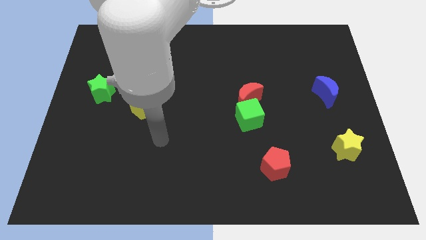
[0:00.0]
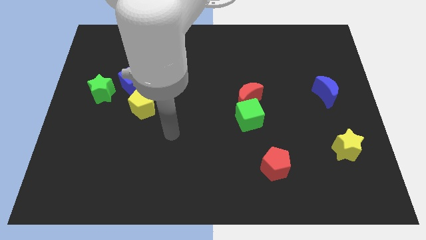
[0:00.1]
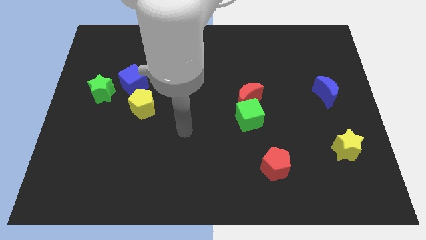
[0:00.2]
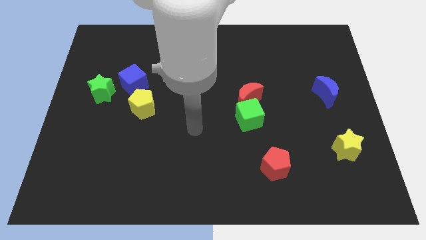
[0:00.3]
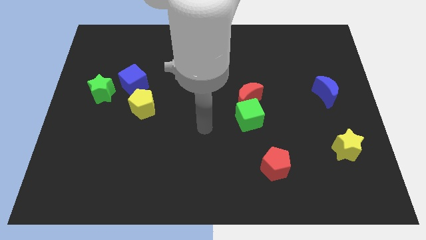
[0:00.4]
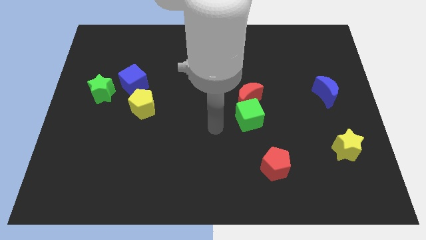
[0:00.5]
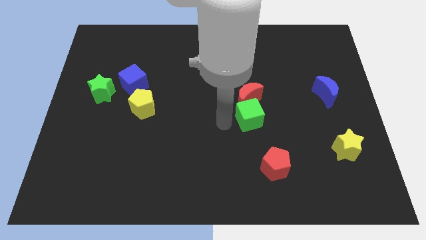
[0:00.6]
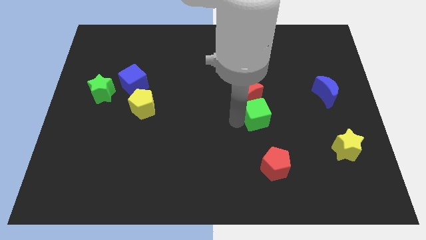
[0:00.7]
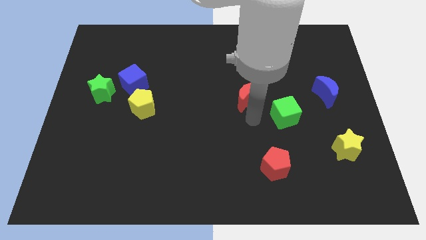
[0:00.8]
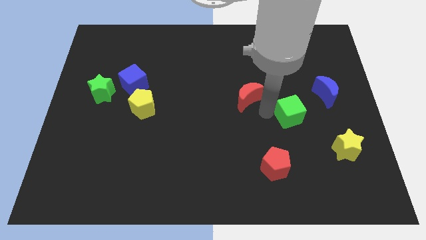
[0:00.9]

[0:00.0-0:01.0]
pull the red moon apart from the green cube

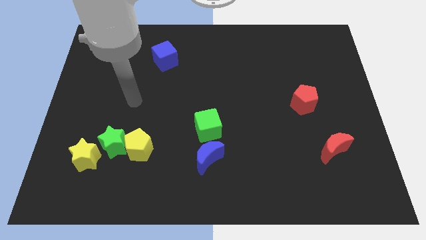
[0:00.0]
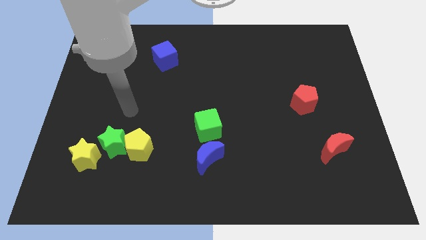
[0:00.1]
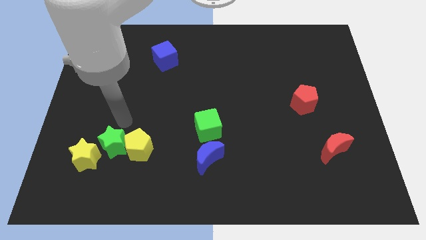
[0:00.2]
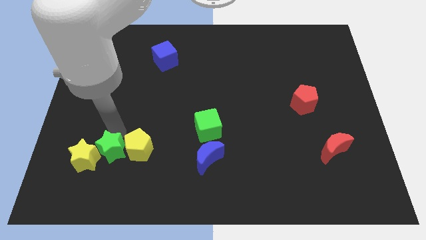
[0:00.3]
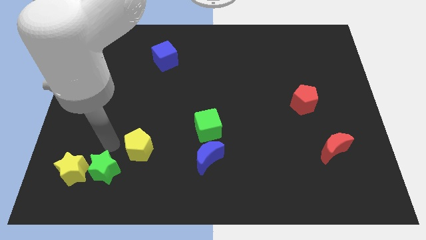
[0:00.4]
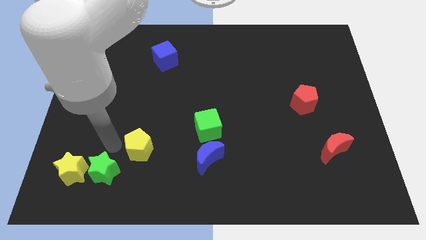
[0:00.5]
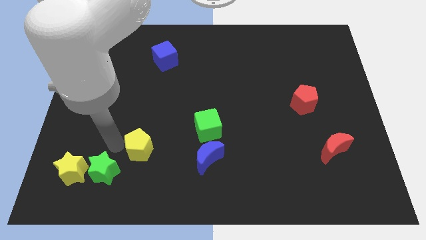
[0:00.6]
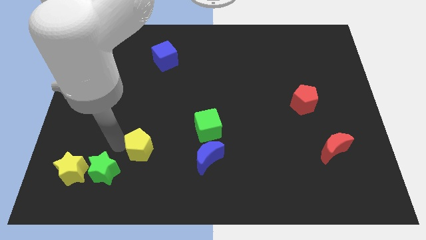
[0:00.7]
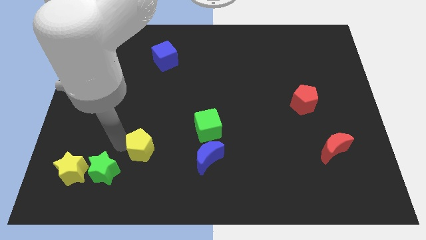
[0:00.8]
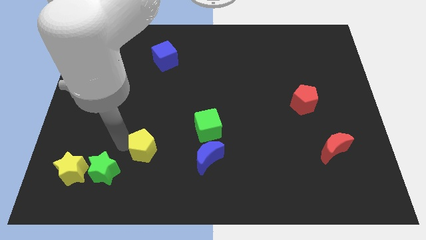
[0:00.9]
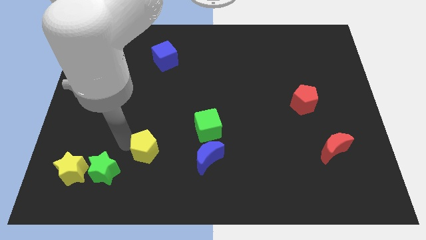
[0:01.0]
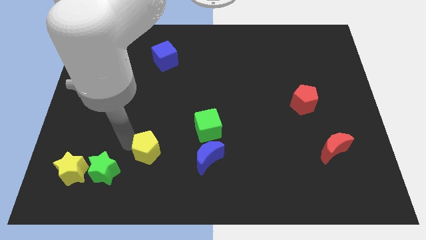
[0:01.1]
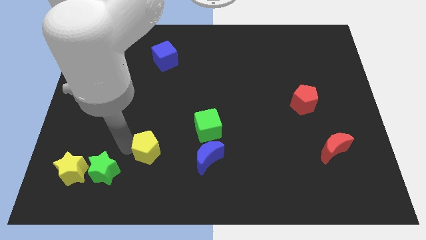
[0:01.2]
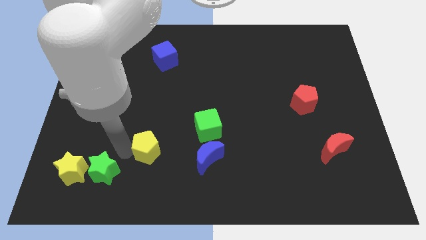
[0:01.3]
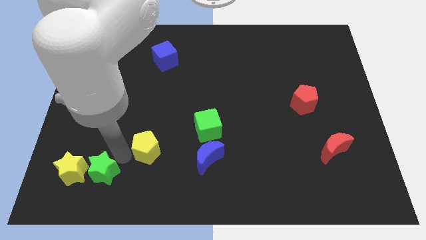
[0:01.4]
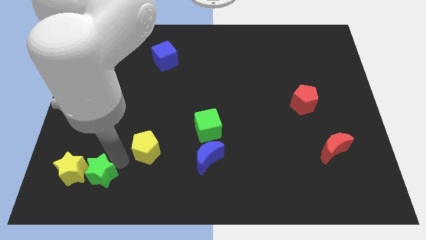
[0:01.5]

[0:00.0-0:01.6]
move the yellow pentagon away from the green star

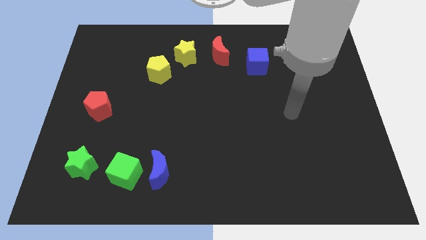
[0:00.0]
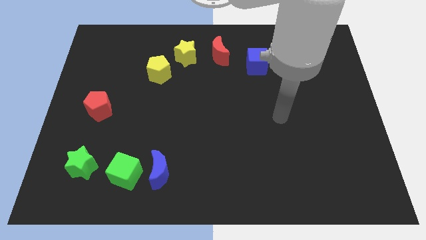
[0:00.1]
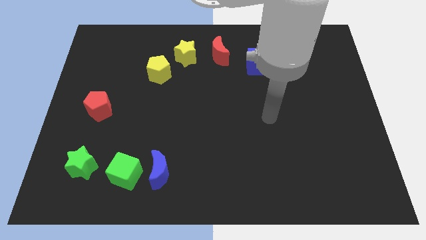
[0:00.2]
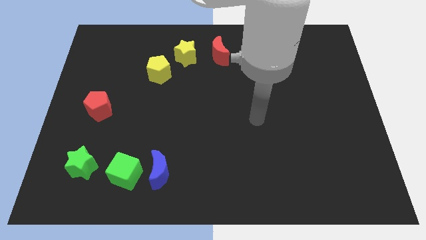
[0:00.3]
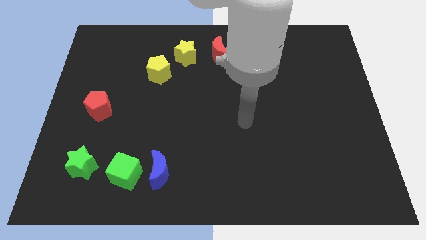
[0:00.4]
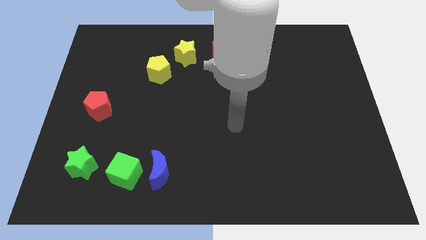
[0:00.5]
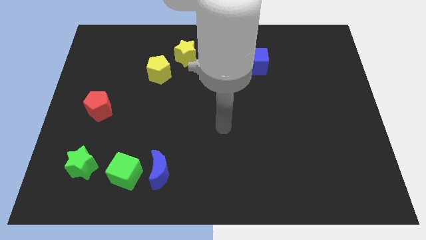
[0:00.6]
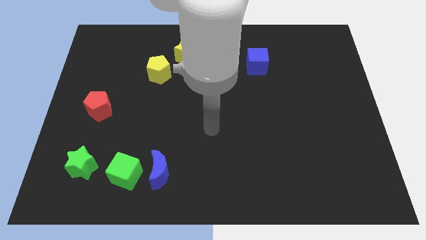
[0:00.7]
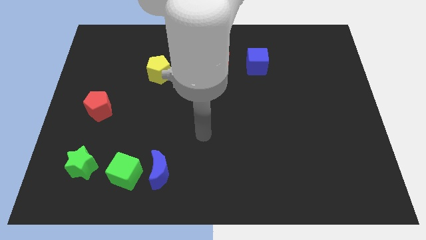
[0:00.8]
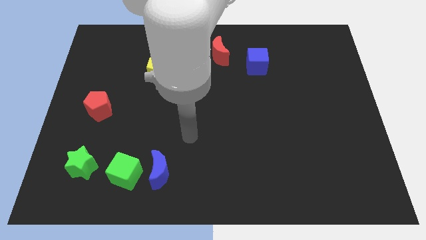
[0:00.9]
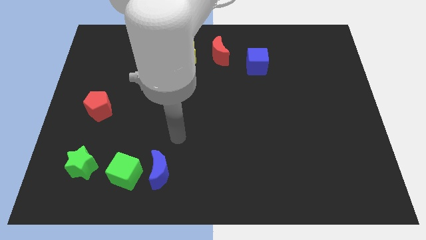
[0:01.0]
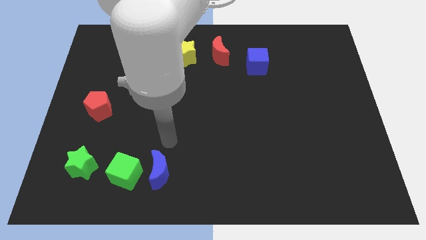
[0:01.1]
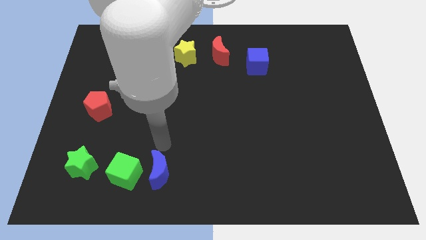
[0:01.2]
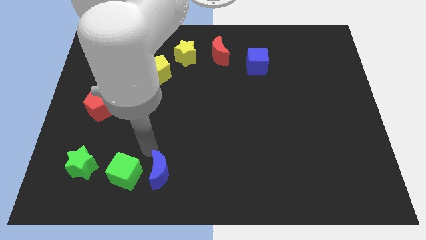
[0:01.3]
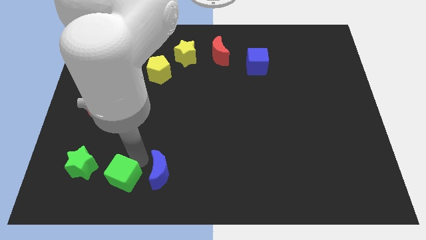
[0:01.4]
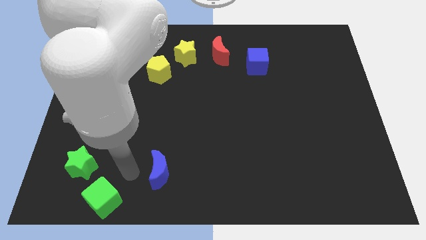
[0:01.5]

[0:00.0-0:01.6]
pull the blue moon apart from the green cube

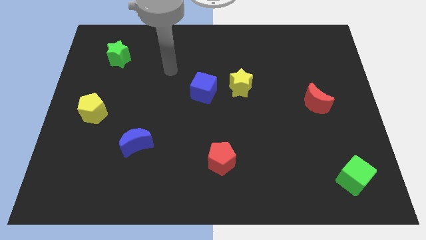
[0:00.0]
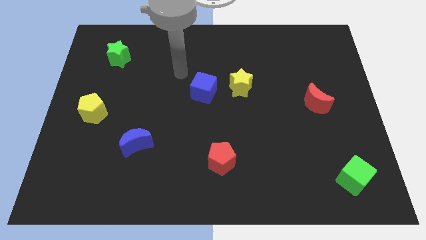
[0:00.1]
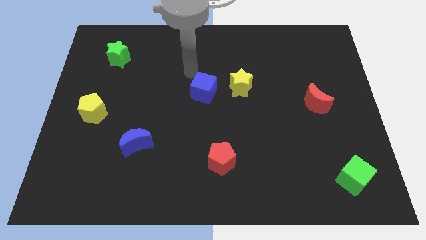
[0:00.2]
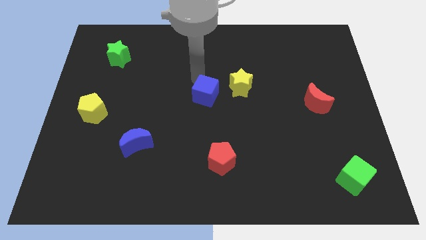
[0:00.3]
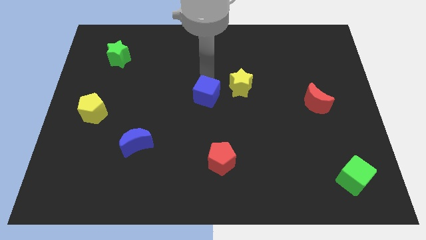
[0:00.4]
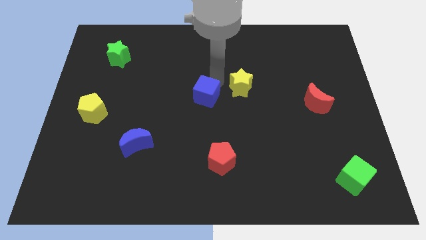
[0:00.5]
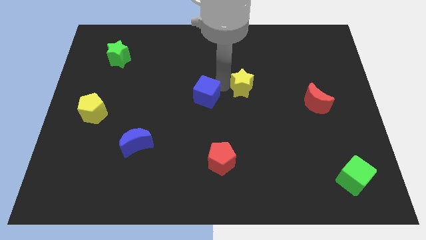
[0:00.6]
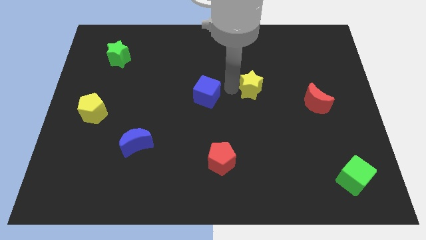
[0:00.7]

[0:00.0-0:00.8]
move the blue cube away from the yellow star

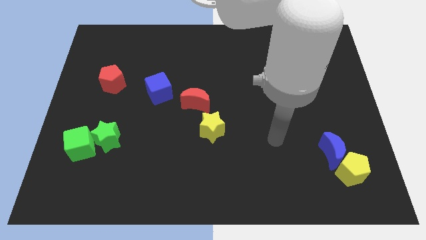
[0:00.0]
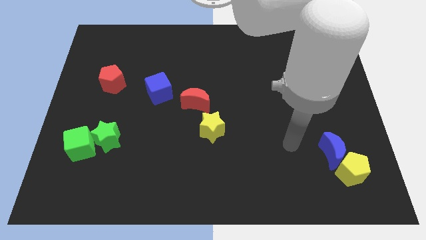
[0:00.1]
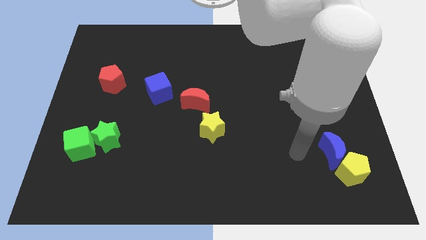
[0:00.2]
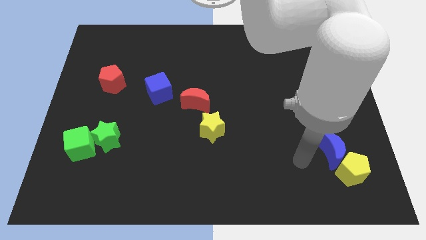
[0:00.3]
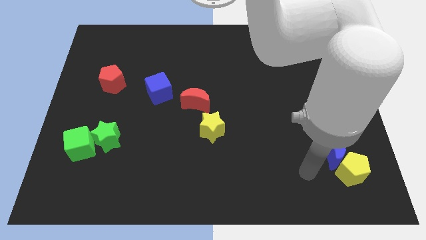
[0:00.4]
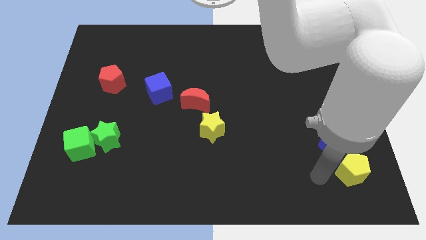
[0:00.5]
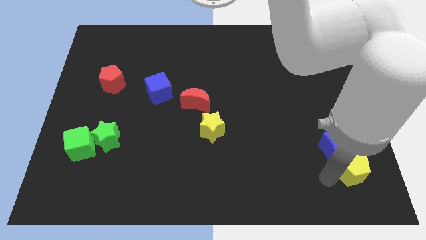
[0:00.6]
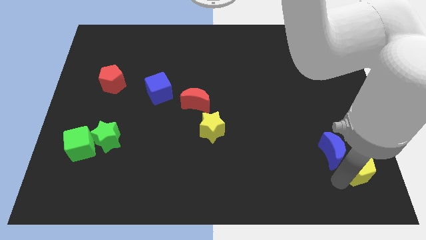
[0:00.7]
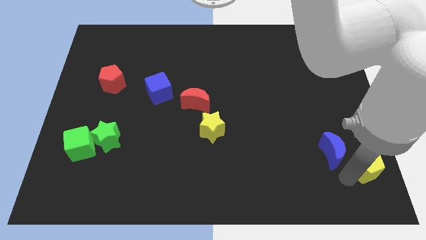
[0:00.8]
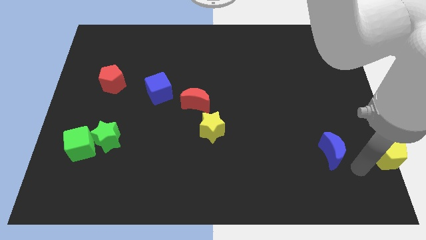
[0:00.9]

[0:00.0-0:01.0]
move the blue moon away from the yellow pentagon

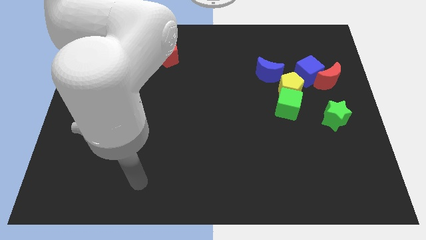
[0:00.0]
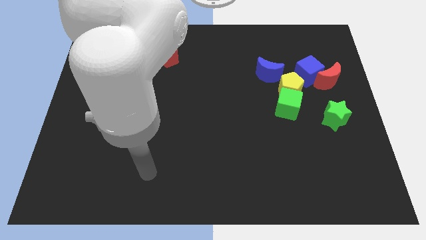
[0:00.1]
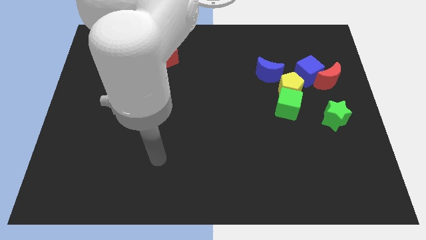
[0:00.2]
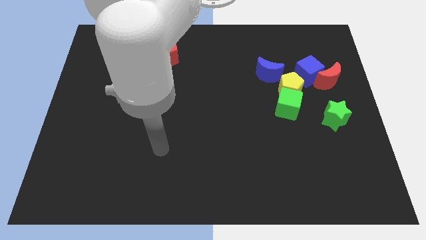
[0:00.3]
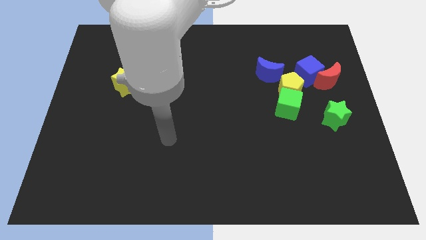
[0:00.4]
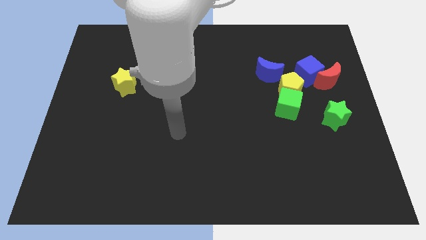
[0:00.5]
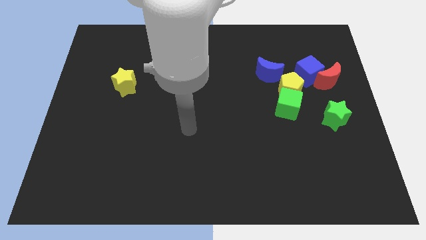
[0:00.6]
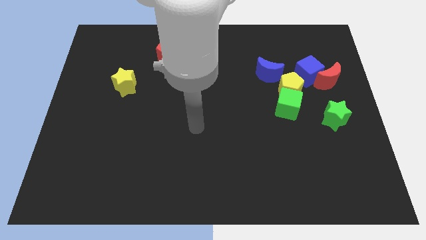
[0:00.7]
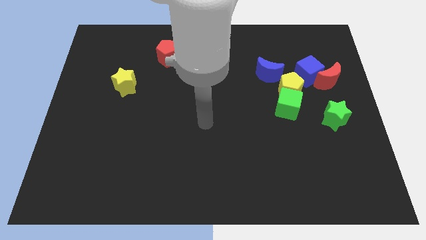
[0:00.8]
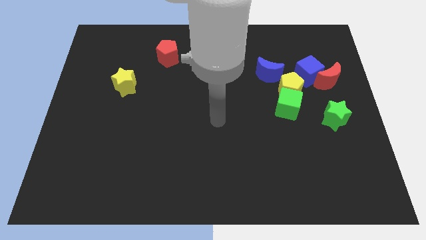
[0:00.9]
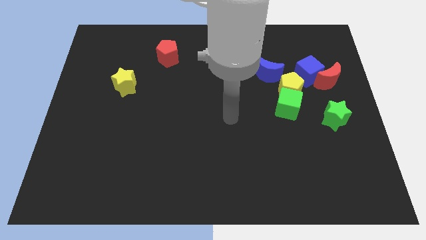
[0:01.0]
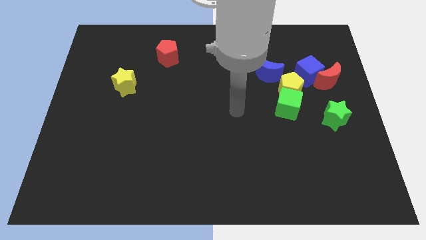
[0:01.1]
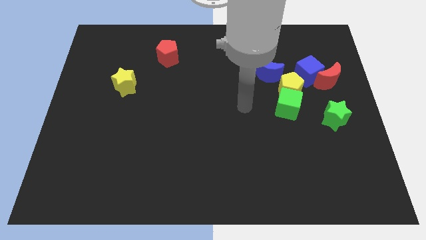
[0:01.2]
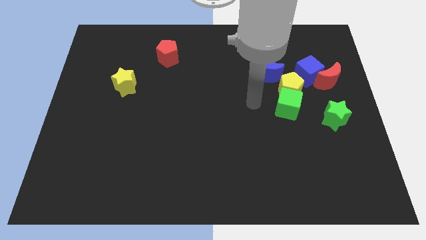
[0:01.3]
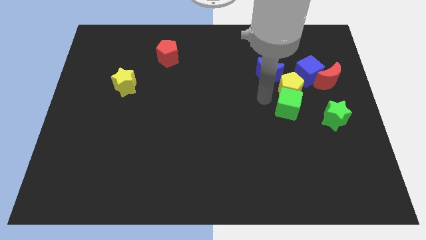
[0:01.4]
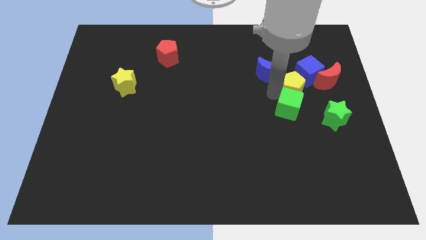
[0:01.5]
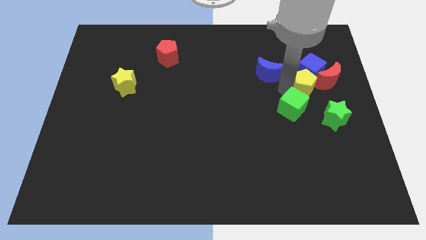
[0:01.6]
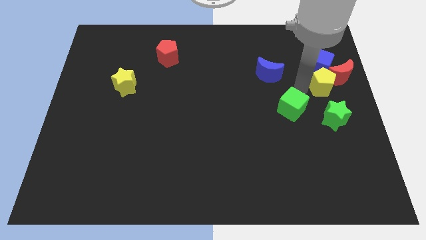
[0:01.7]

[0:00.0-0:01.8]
move the green cube away from the yellow pentagon

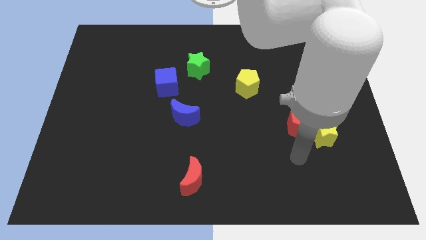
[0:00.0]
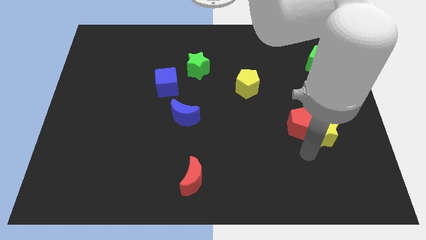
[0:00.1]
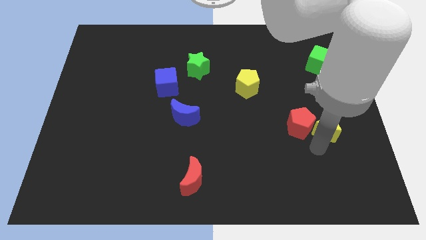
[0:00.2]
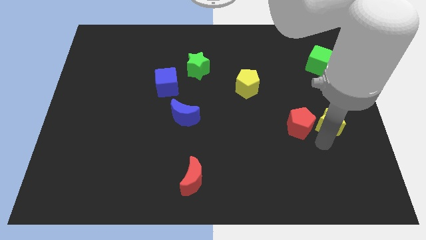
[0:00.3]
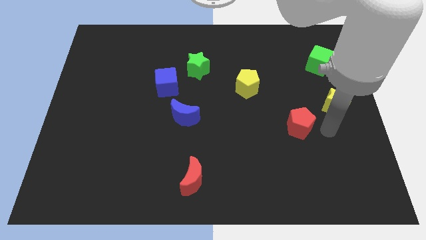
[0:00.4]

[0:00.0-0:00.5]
separate the red pentagon from the yellow star

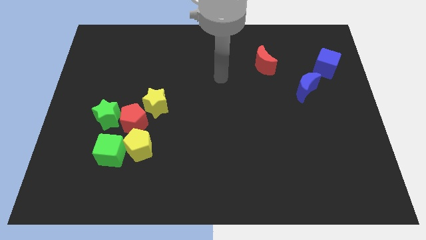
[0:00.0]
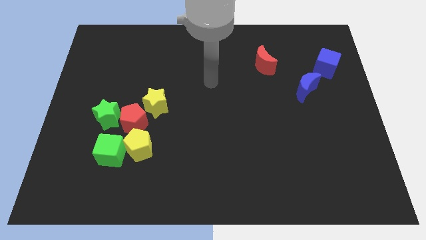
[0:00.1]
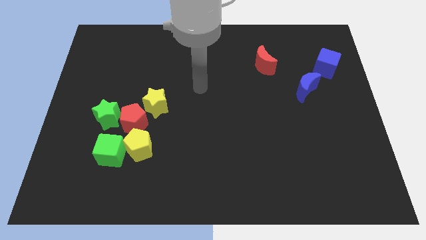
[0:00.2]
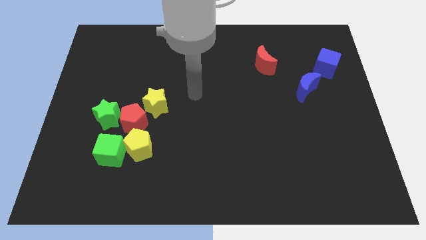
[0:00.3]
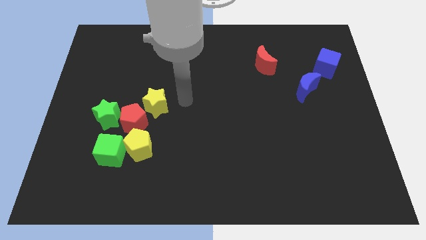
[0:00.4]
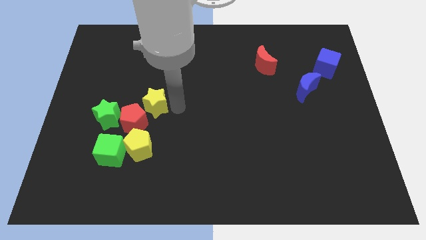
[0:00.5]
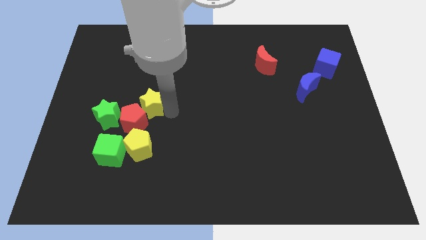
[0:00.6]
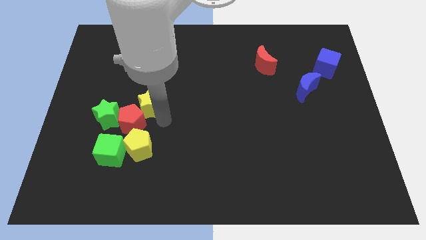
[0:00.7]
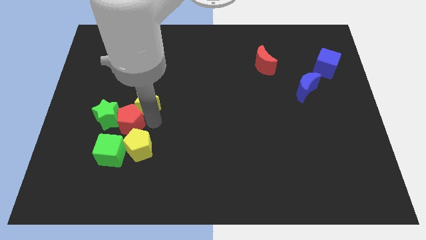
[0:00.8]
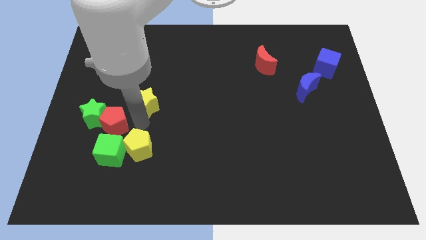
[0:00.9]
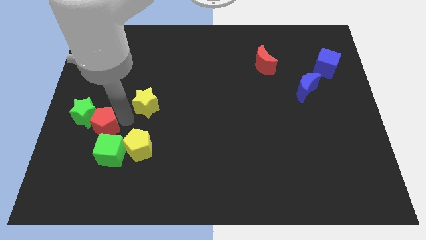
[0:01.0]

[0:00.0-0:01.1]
separate the yellow star from the red pentagon
